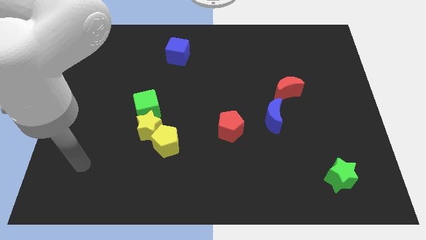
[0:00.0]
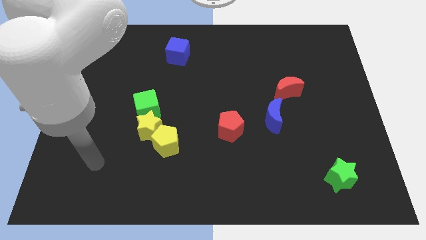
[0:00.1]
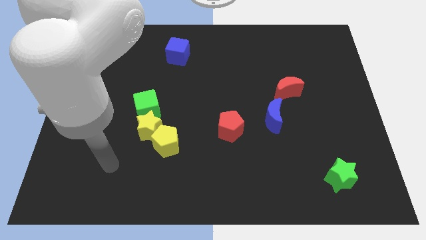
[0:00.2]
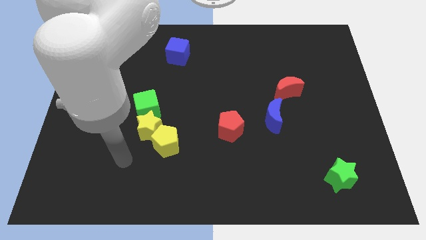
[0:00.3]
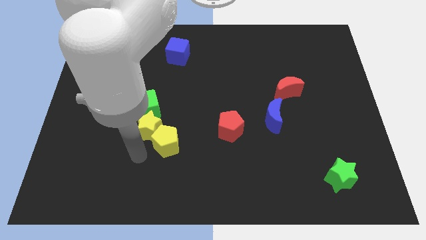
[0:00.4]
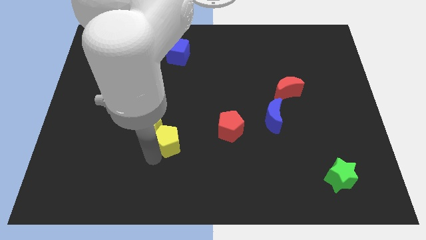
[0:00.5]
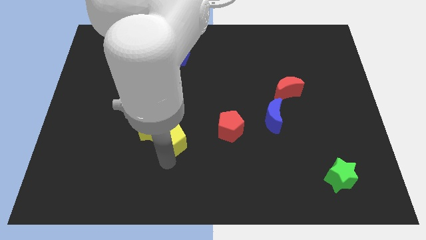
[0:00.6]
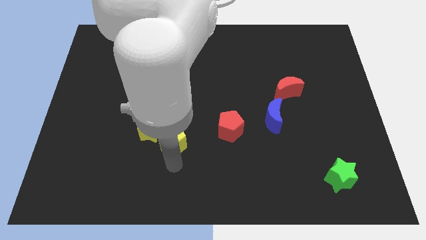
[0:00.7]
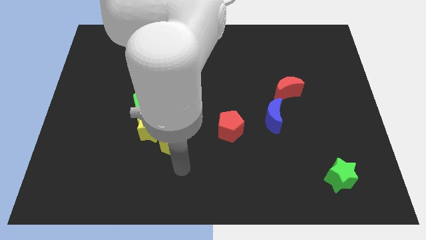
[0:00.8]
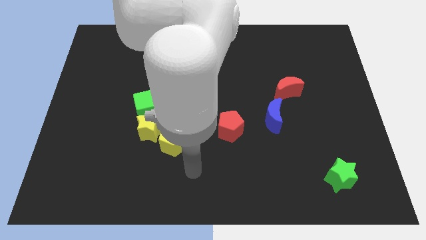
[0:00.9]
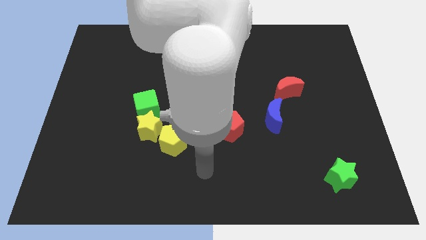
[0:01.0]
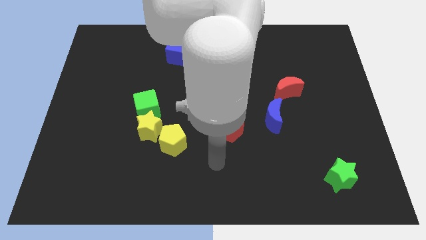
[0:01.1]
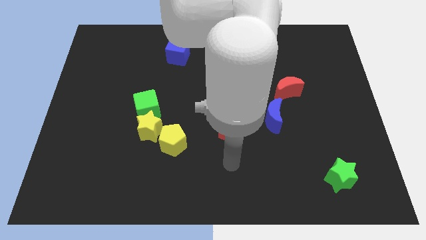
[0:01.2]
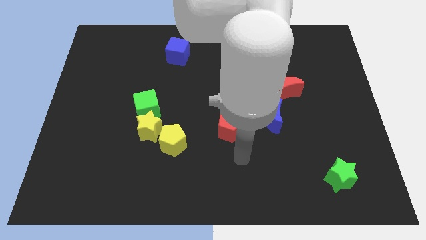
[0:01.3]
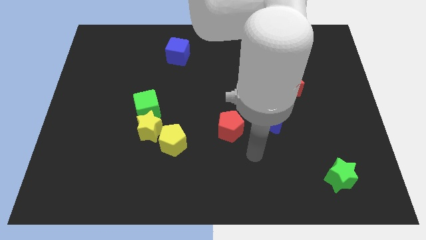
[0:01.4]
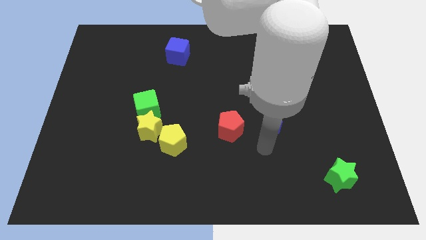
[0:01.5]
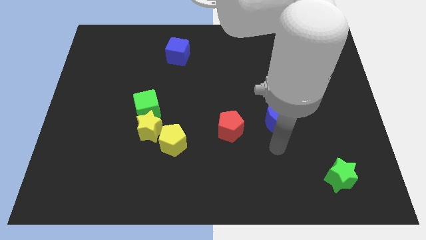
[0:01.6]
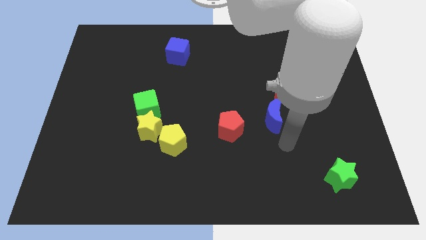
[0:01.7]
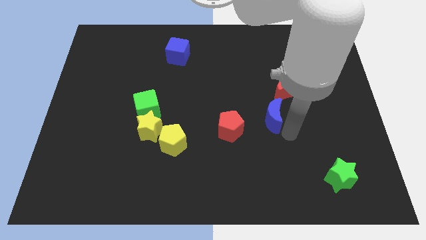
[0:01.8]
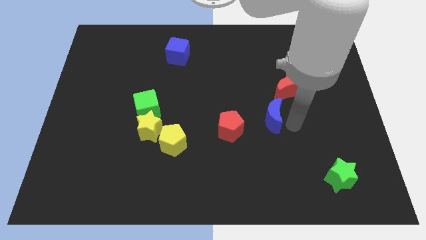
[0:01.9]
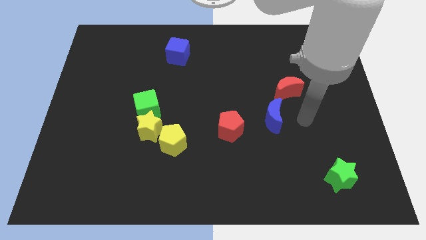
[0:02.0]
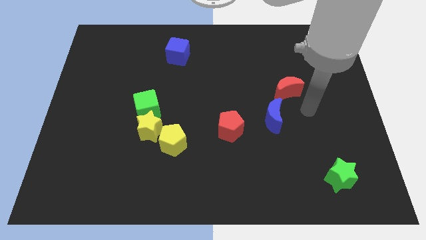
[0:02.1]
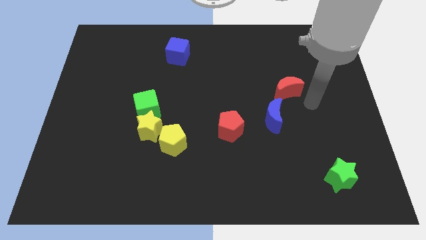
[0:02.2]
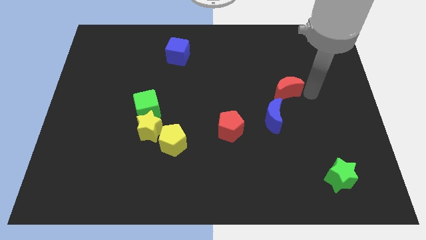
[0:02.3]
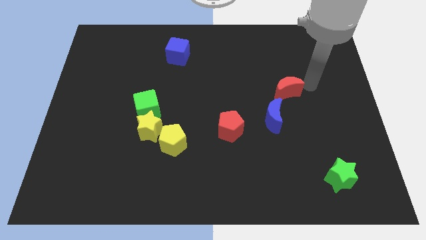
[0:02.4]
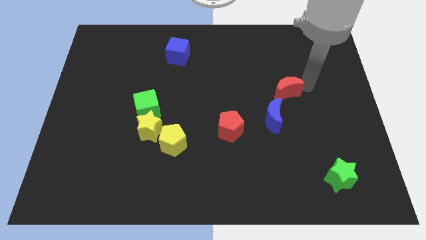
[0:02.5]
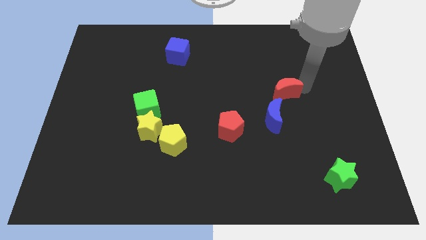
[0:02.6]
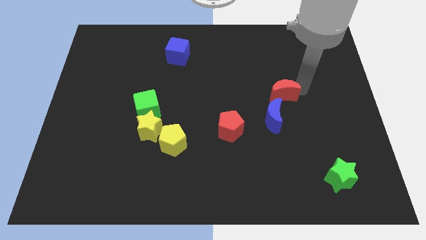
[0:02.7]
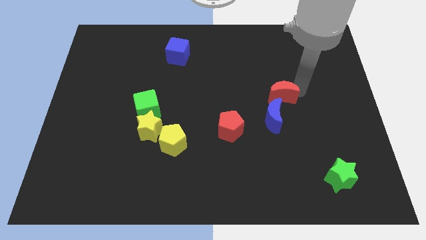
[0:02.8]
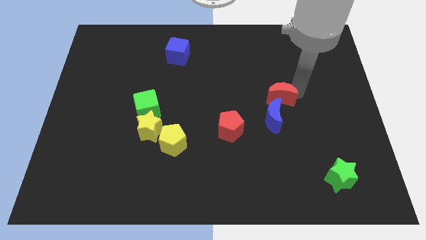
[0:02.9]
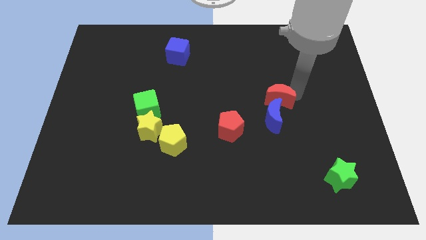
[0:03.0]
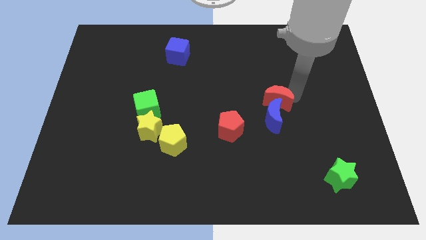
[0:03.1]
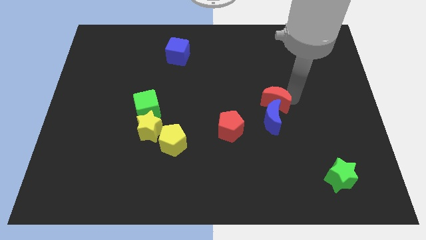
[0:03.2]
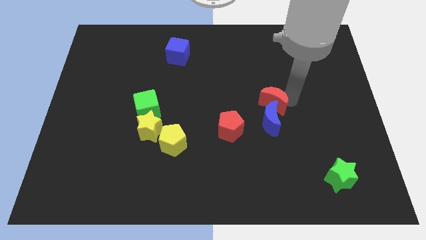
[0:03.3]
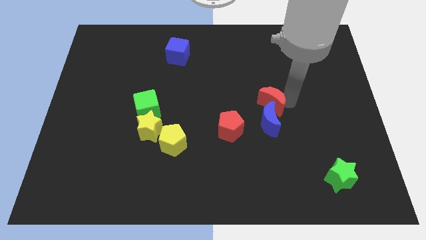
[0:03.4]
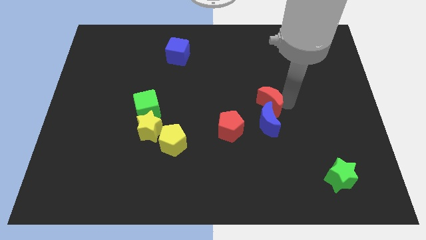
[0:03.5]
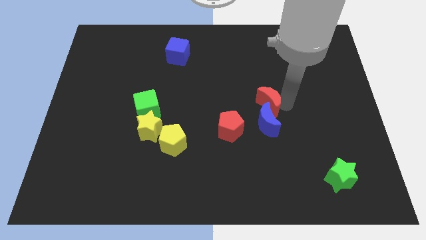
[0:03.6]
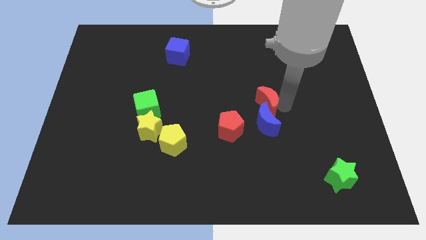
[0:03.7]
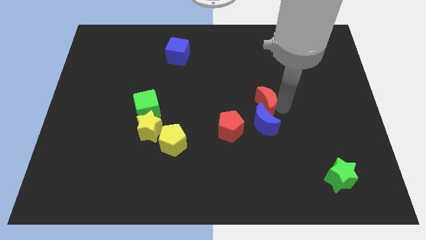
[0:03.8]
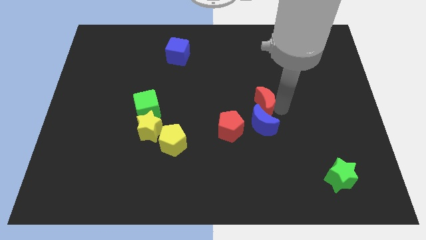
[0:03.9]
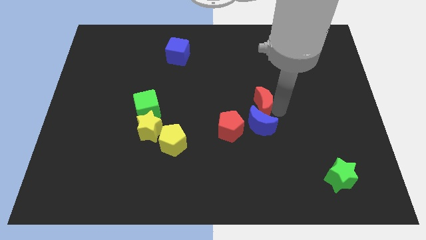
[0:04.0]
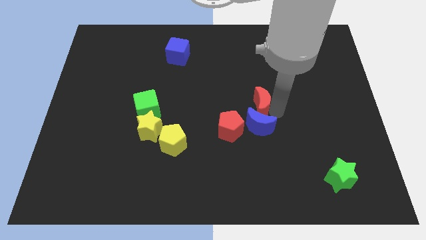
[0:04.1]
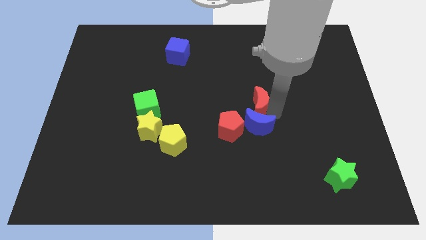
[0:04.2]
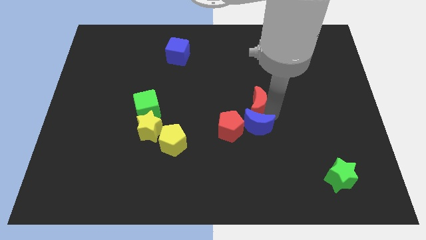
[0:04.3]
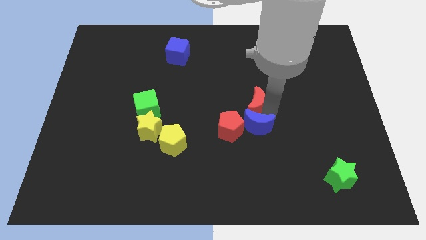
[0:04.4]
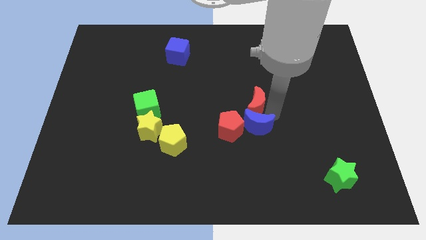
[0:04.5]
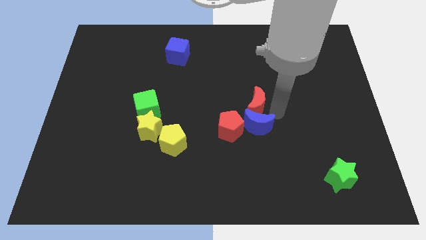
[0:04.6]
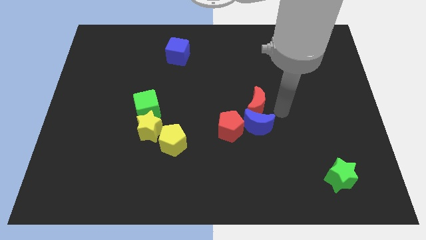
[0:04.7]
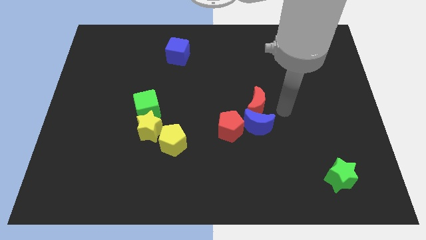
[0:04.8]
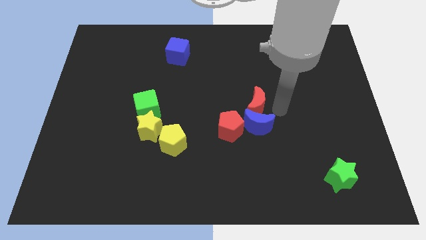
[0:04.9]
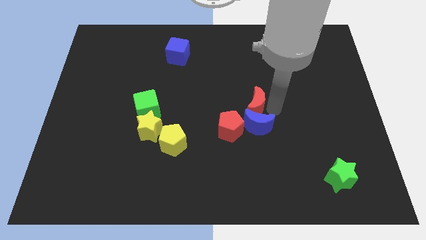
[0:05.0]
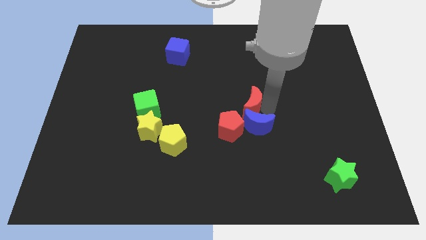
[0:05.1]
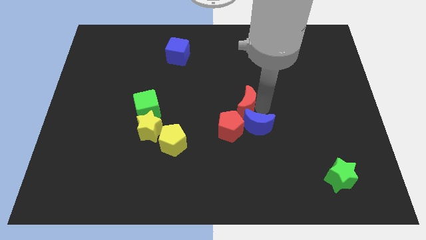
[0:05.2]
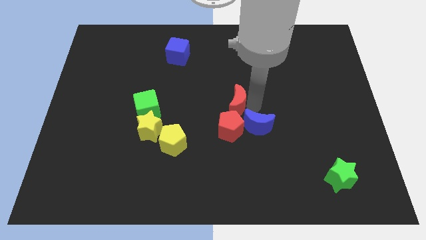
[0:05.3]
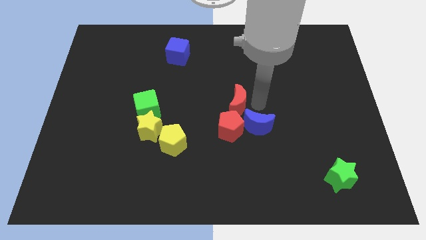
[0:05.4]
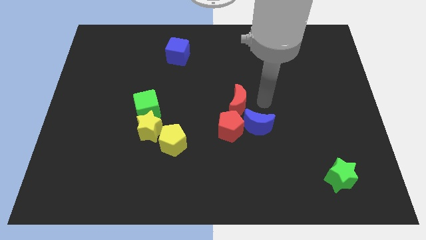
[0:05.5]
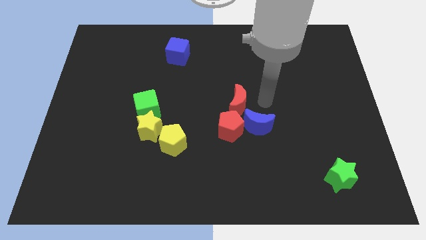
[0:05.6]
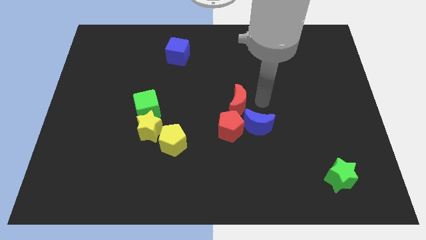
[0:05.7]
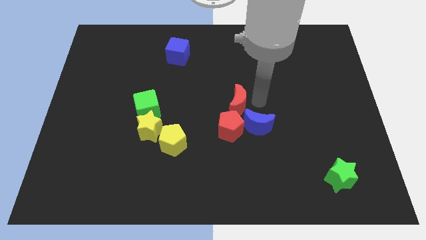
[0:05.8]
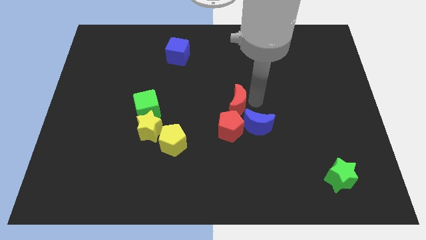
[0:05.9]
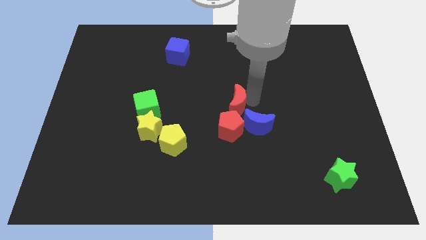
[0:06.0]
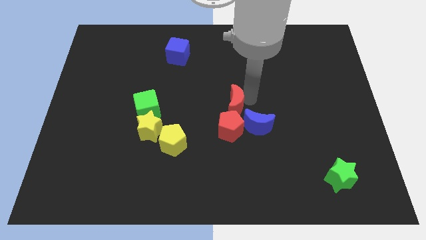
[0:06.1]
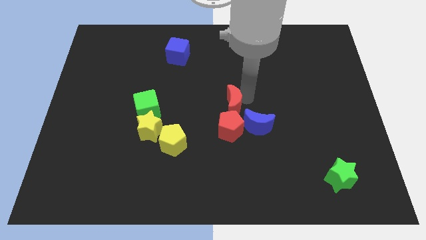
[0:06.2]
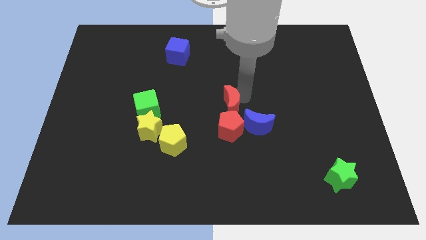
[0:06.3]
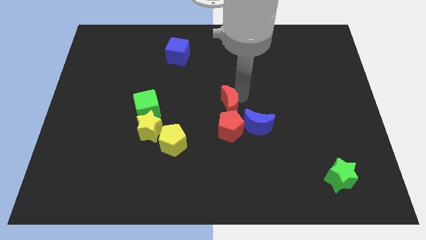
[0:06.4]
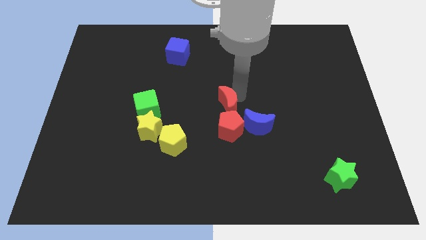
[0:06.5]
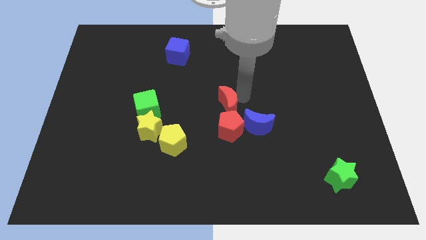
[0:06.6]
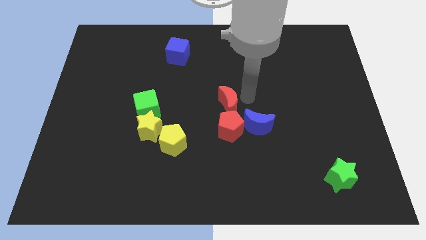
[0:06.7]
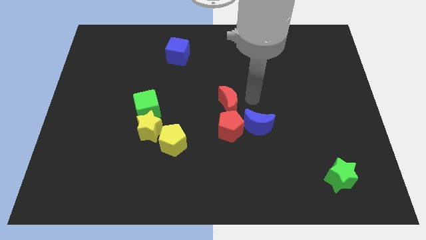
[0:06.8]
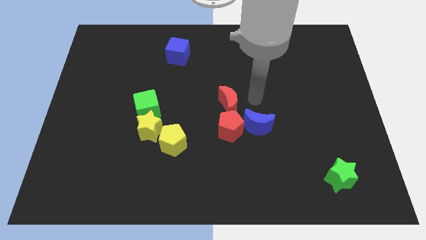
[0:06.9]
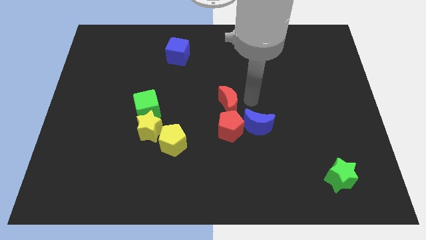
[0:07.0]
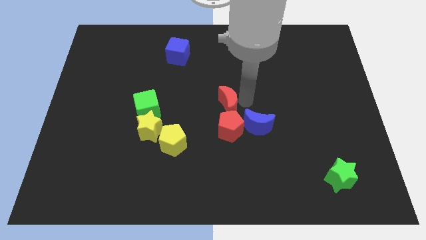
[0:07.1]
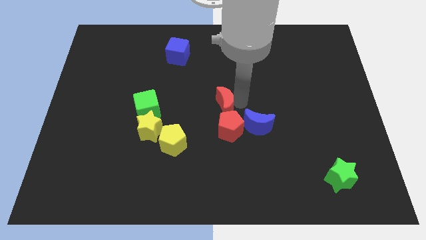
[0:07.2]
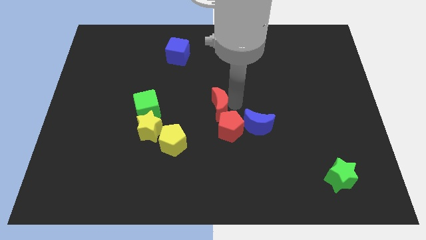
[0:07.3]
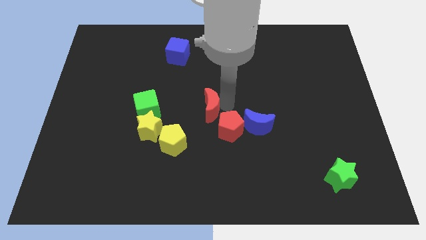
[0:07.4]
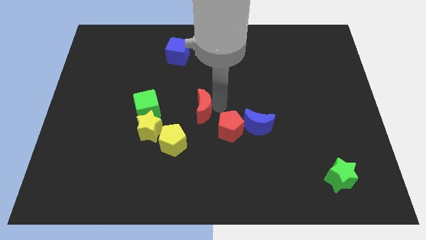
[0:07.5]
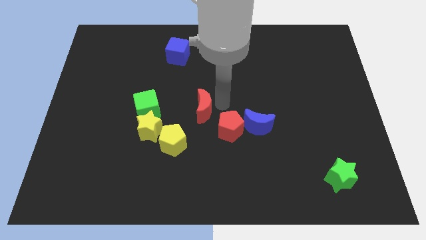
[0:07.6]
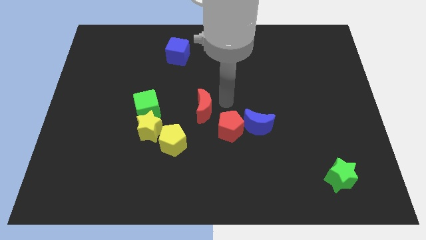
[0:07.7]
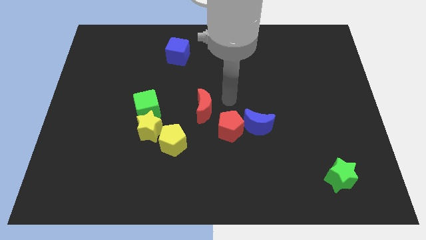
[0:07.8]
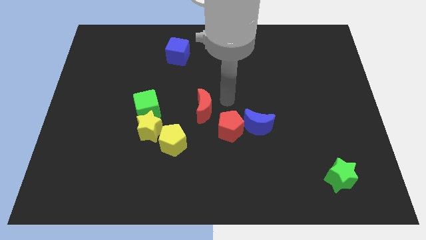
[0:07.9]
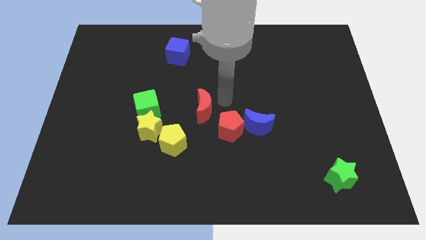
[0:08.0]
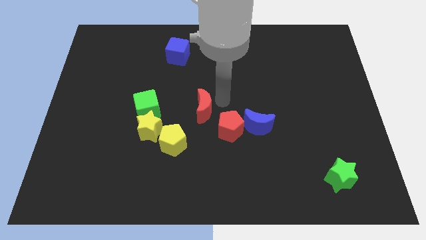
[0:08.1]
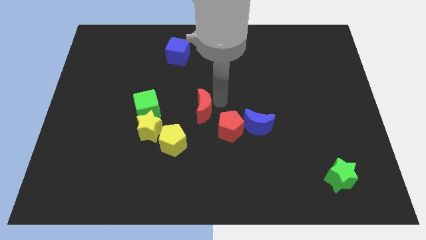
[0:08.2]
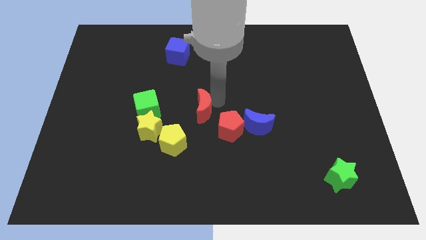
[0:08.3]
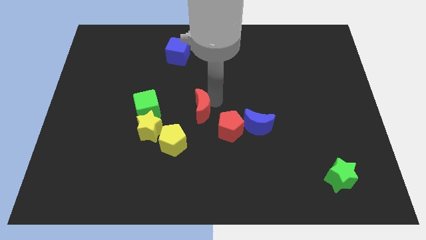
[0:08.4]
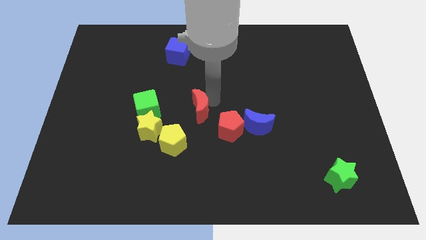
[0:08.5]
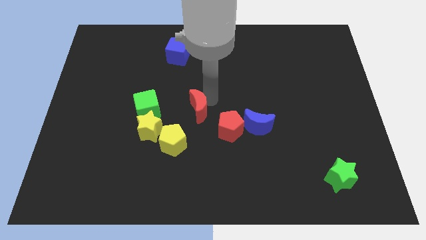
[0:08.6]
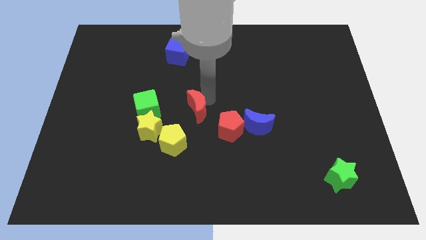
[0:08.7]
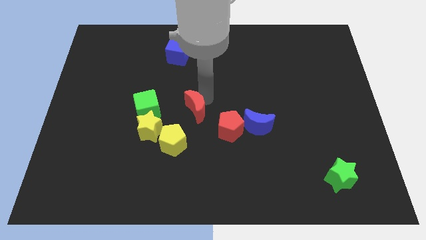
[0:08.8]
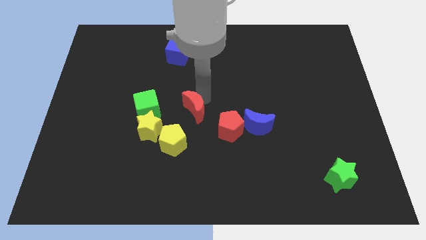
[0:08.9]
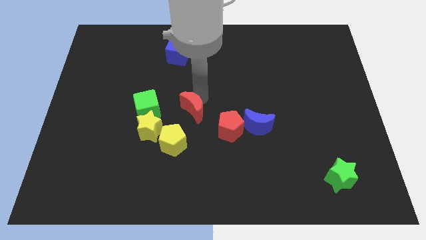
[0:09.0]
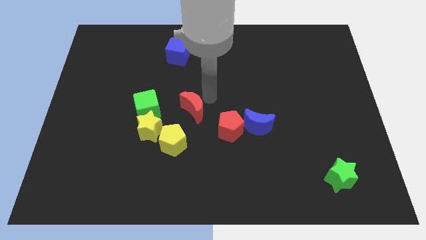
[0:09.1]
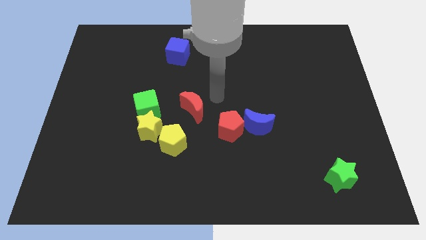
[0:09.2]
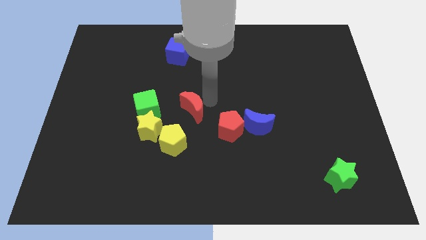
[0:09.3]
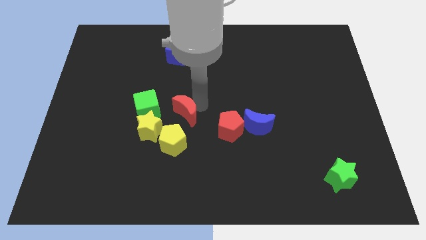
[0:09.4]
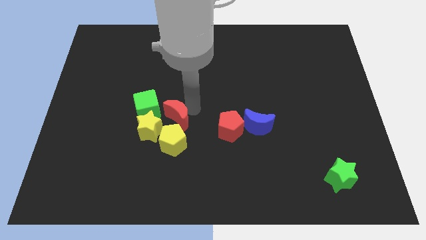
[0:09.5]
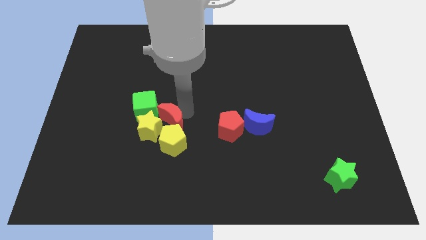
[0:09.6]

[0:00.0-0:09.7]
push the red moon close to the yellow star
